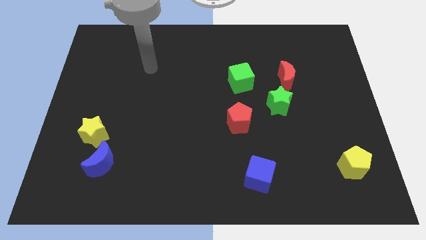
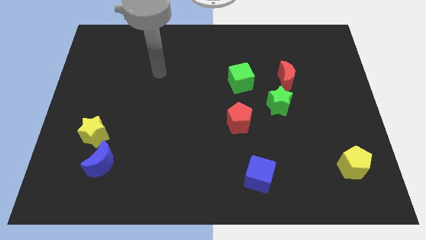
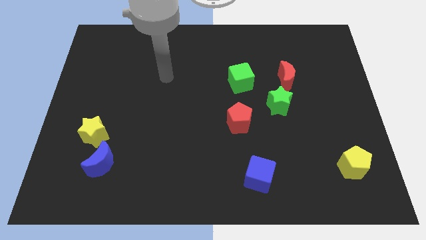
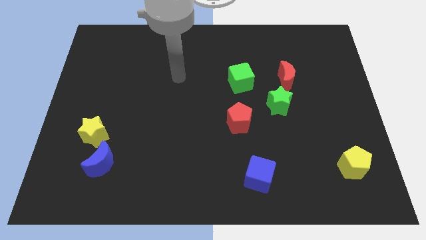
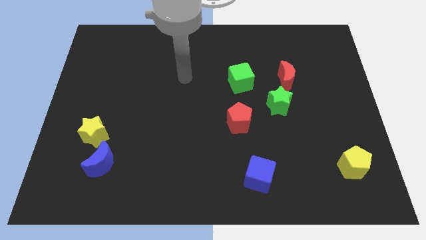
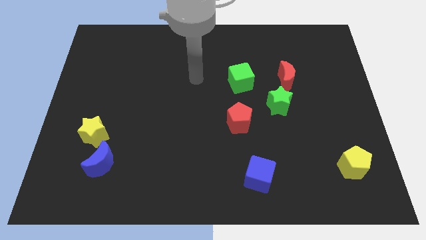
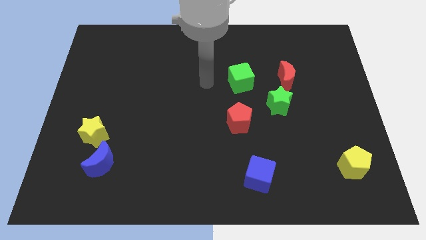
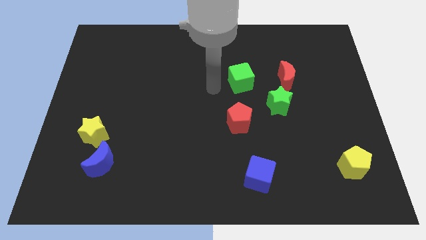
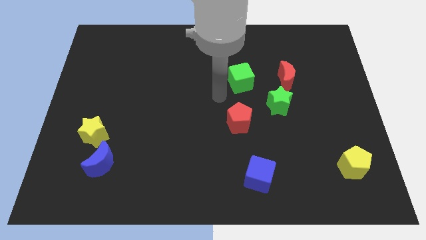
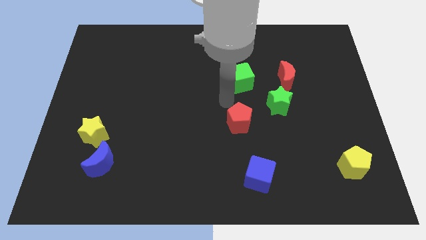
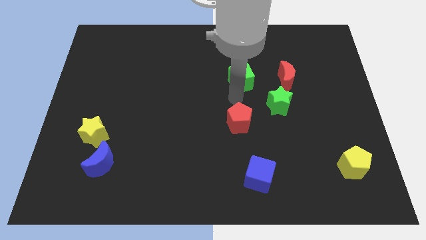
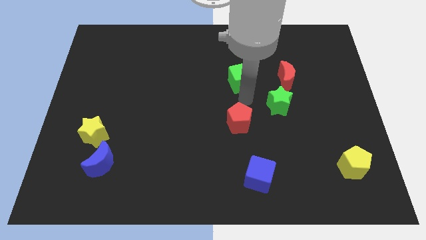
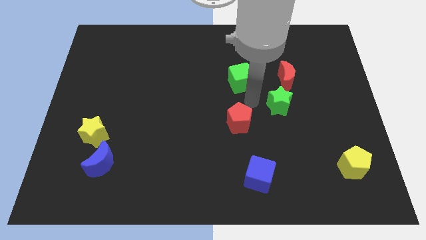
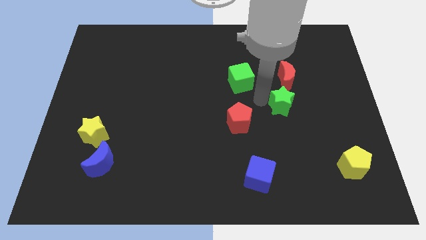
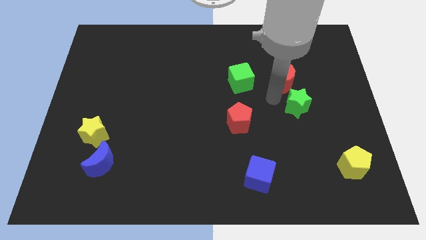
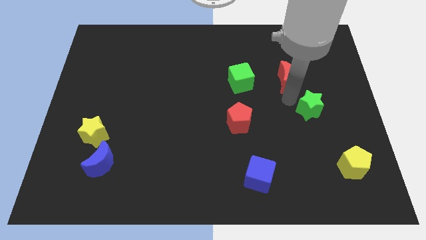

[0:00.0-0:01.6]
separate the red moon from the green star

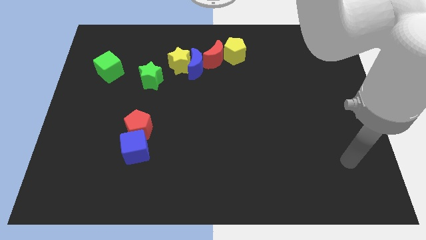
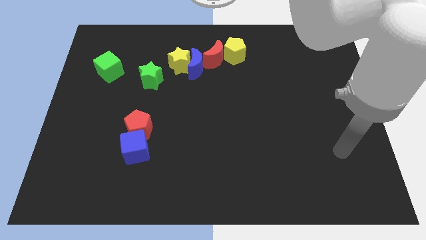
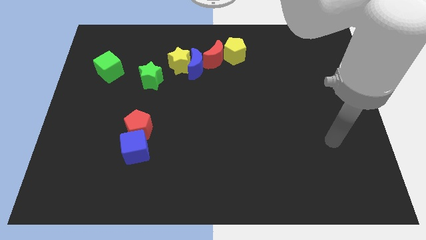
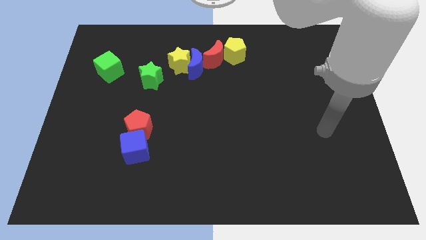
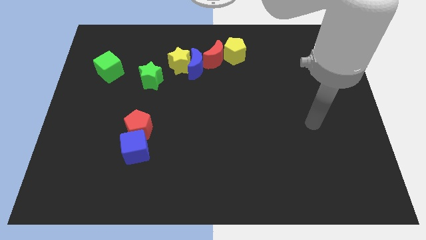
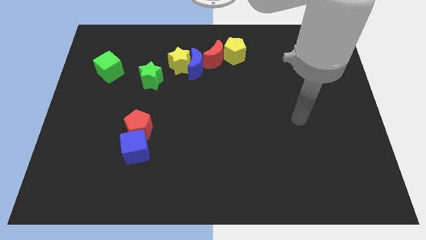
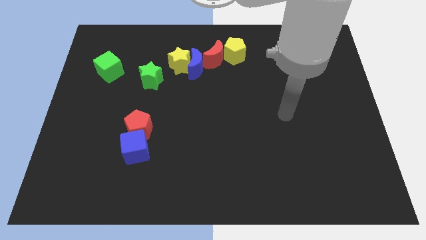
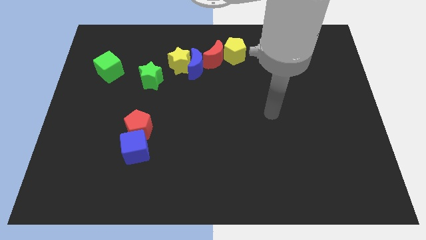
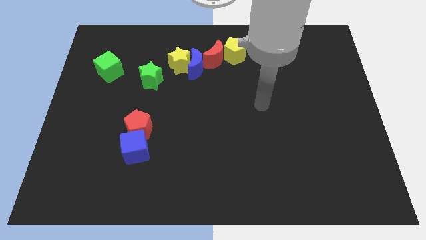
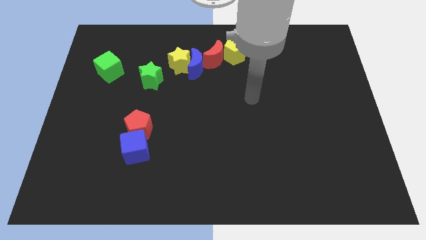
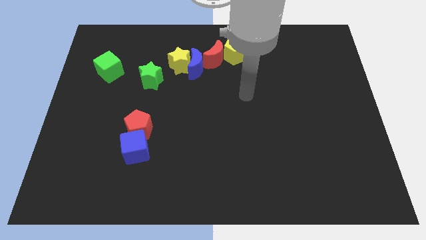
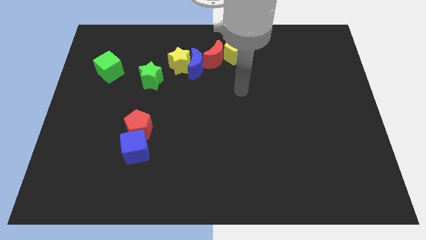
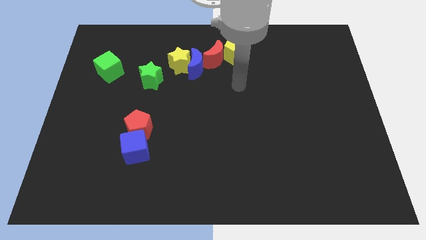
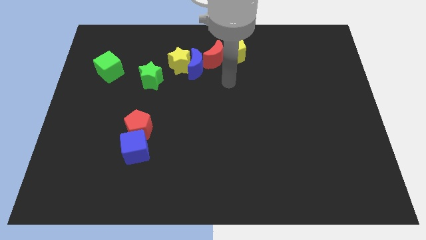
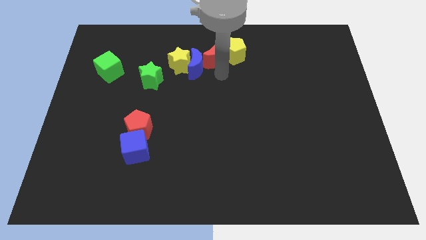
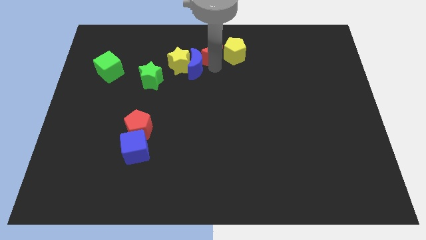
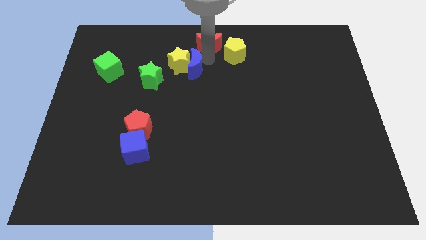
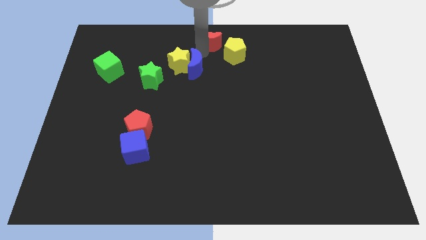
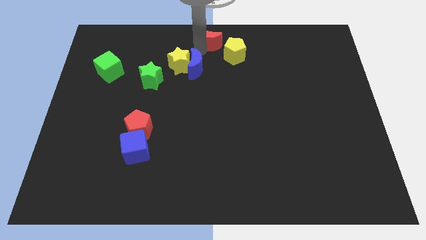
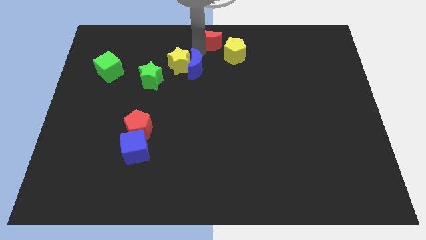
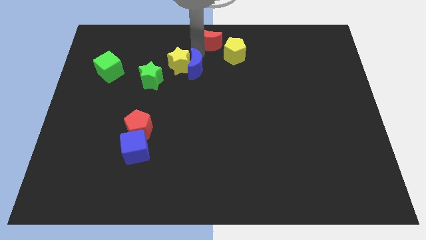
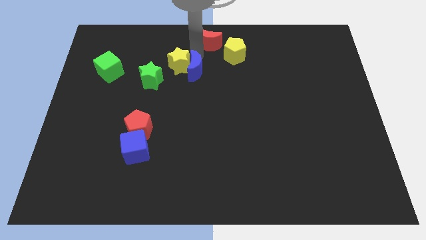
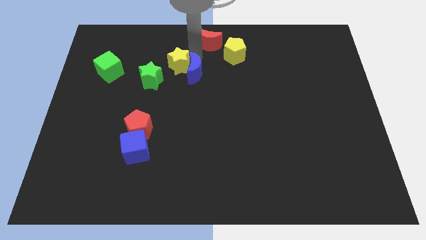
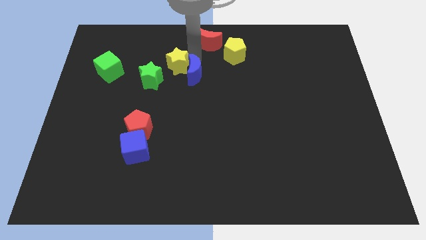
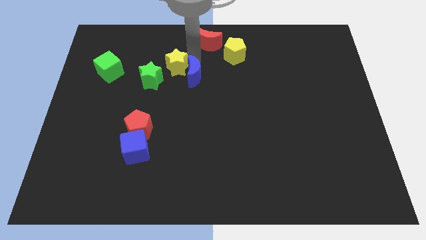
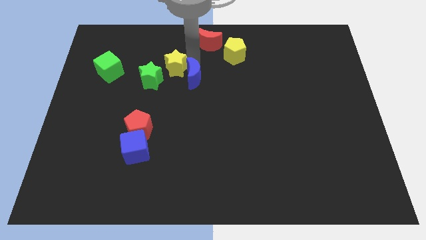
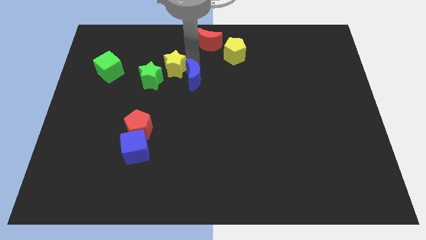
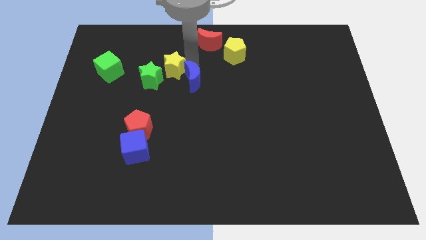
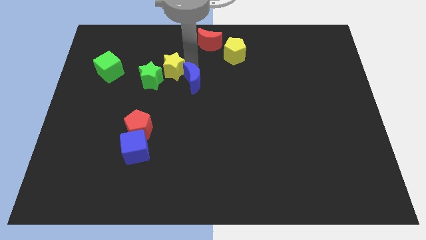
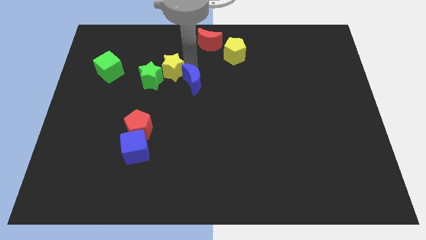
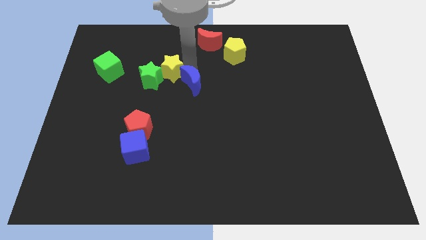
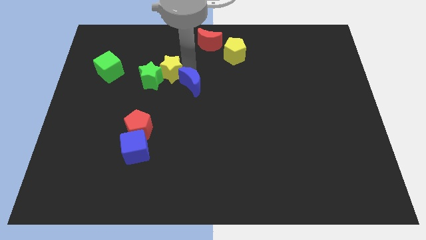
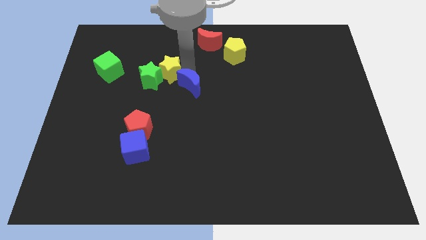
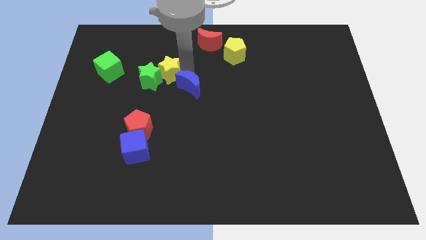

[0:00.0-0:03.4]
move the blue moon away from the yellow star and red moon

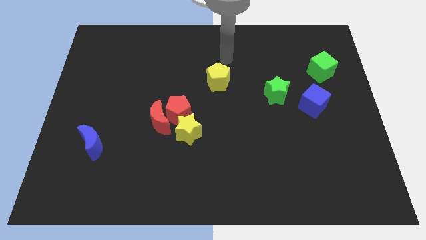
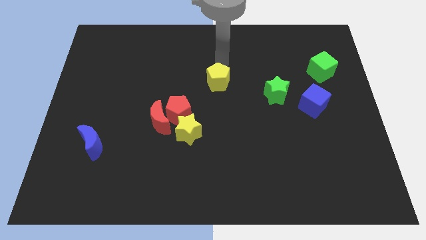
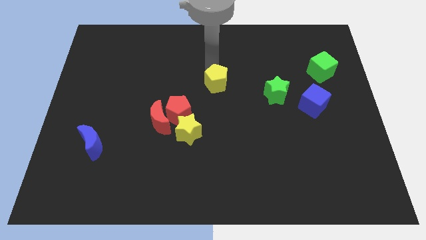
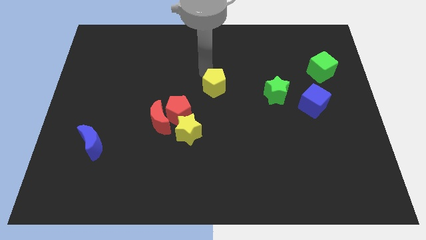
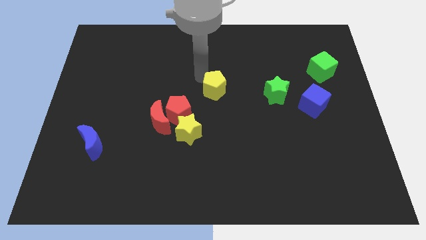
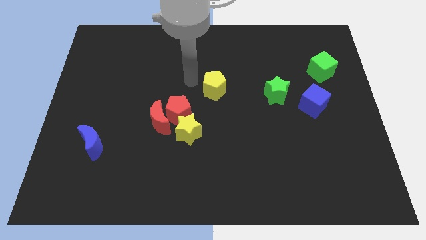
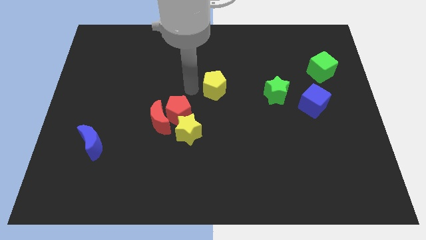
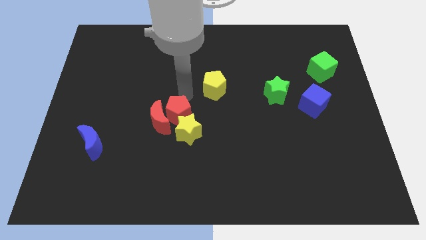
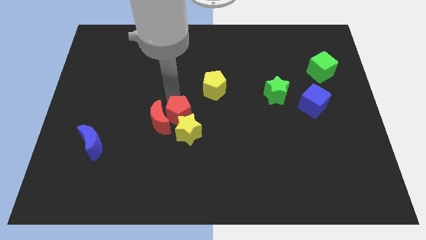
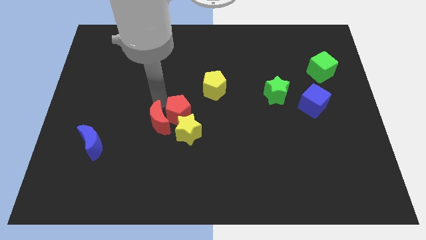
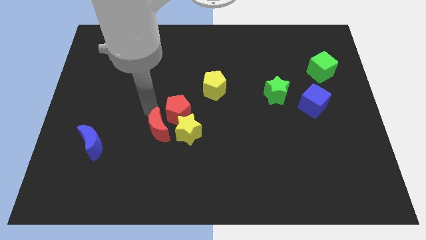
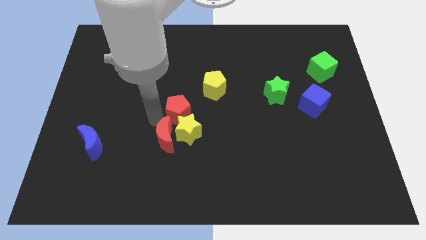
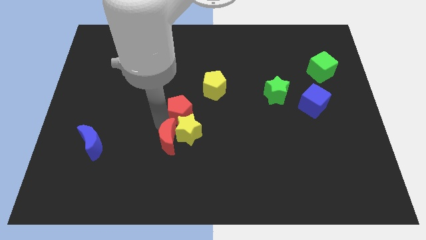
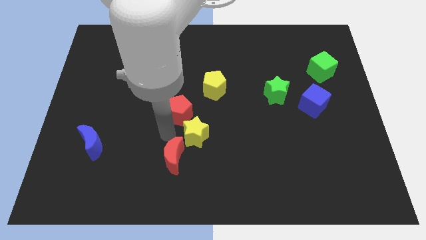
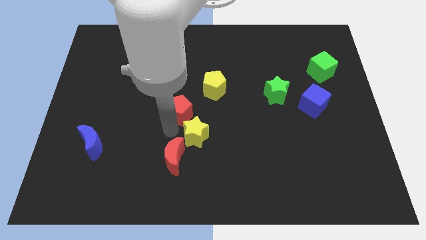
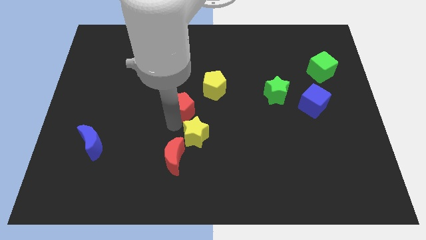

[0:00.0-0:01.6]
move the red pentagon away from the red moon and yellow star

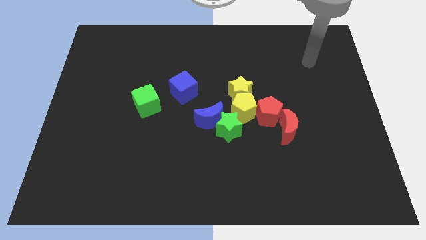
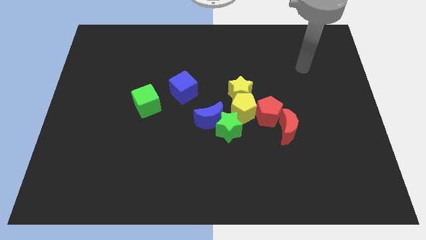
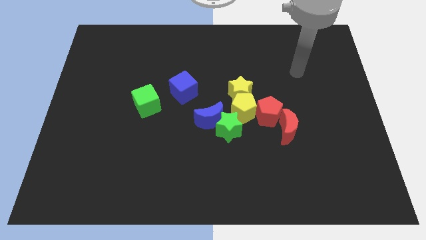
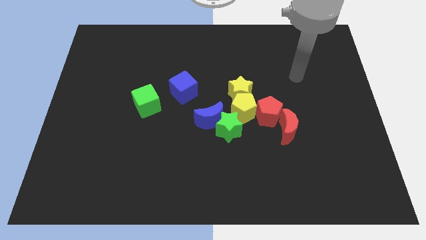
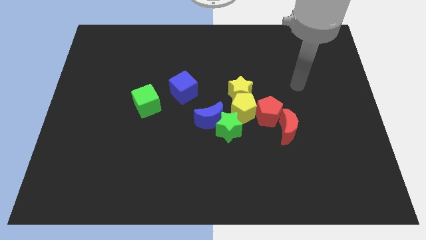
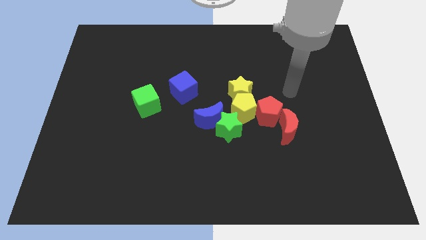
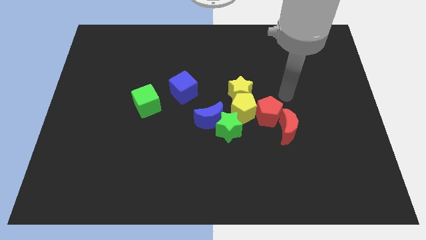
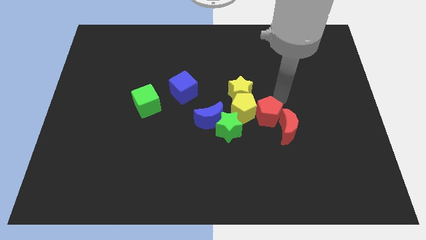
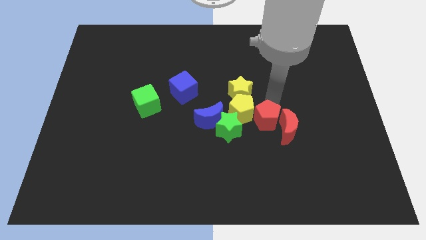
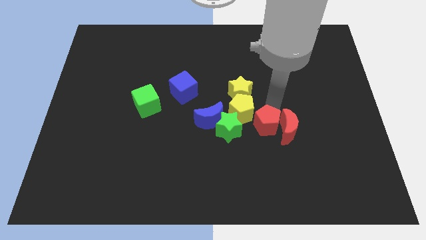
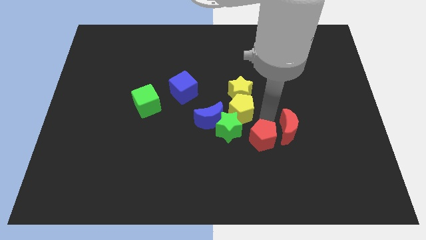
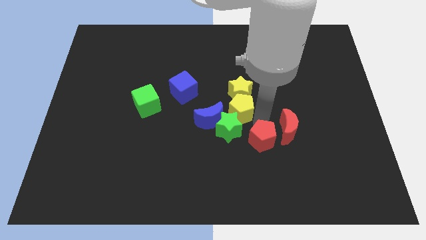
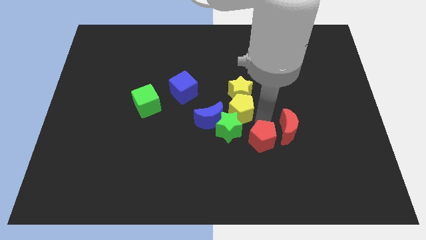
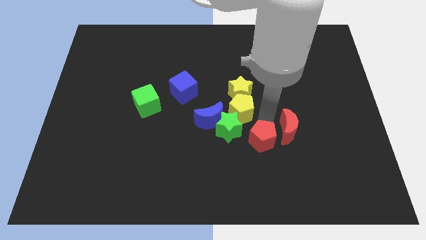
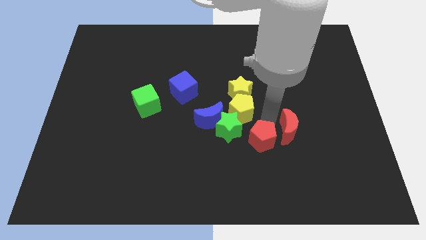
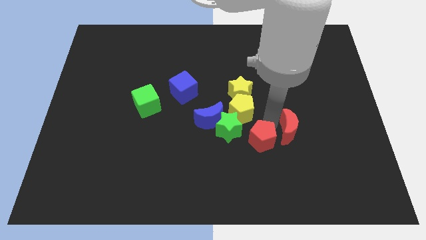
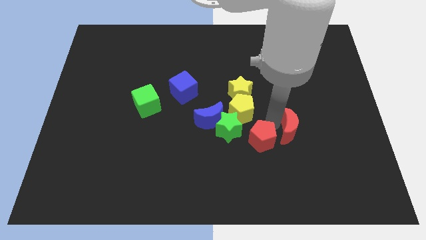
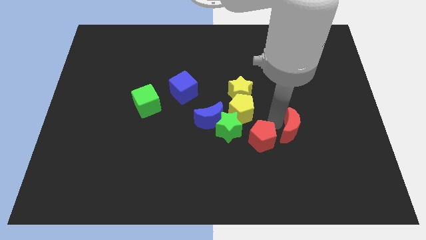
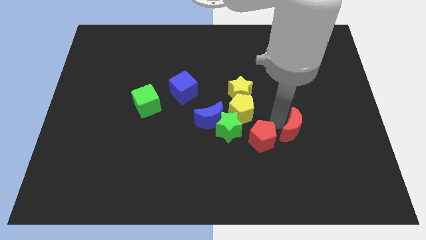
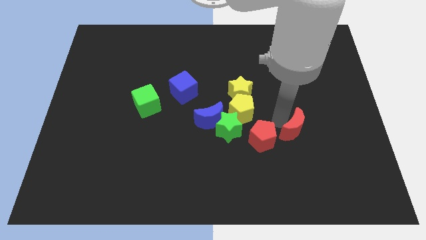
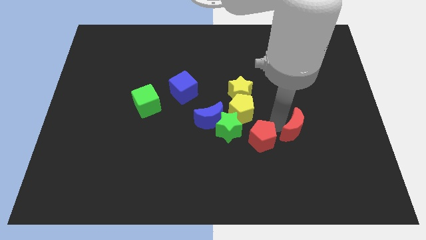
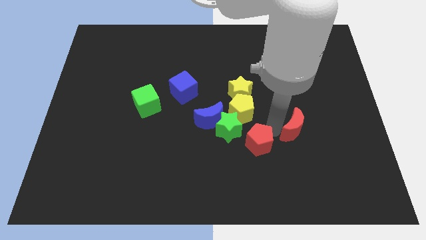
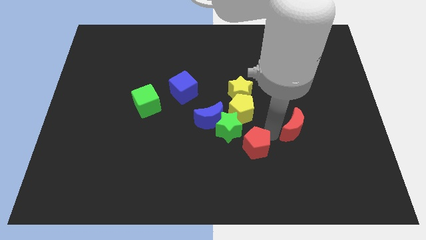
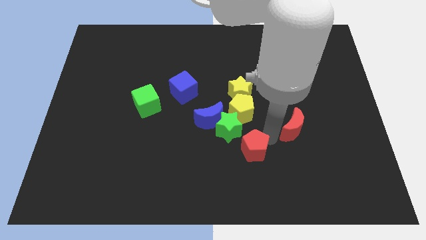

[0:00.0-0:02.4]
move the red moon away from the red pentagon
